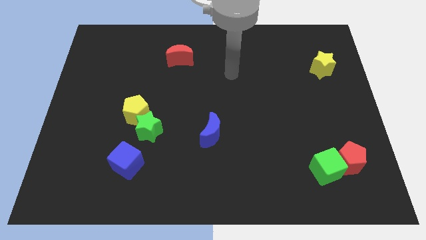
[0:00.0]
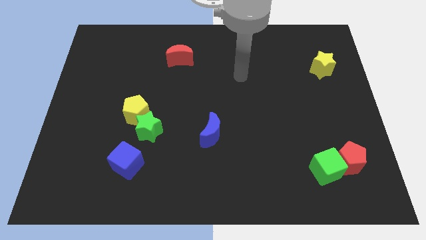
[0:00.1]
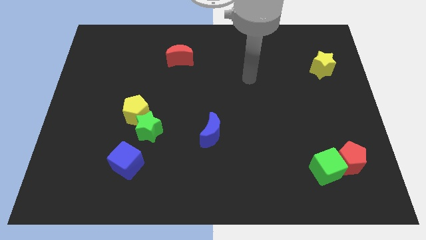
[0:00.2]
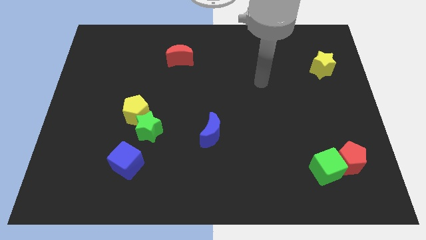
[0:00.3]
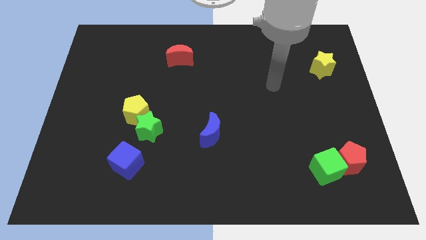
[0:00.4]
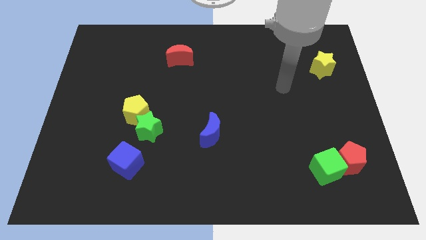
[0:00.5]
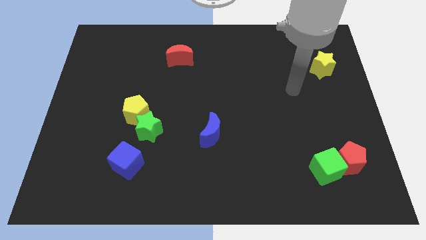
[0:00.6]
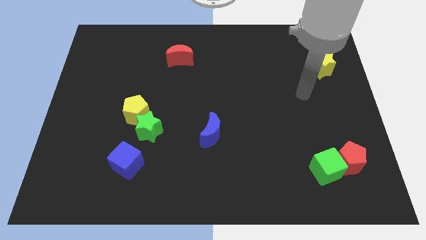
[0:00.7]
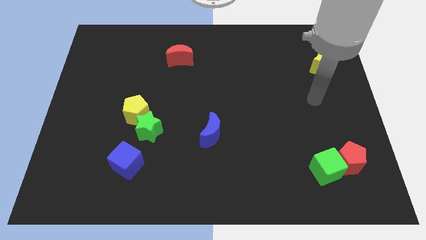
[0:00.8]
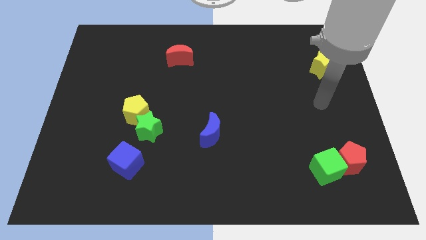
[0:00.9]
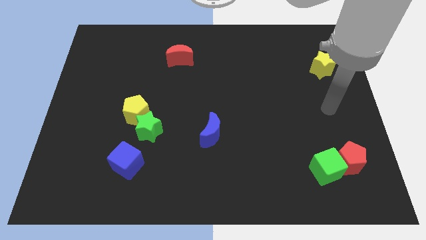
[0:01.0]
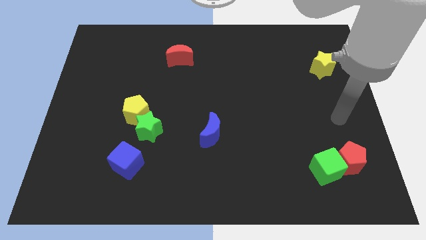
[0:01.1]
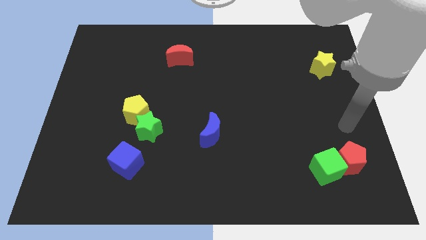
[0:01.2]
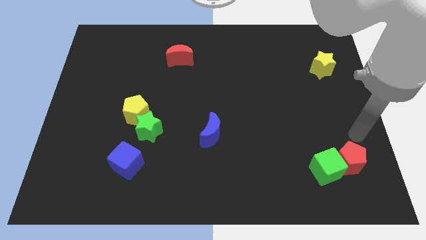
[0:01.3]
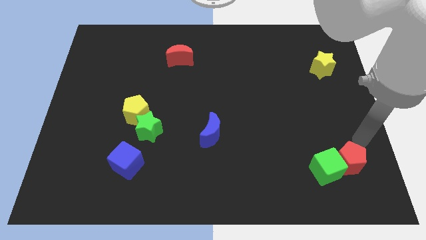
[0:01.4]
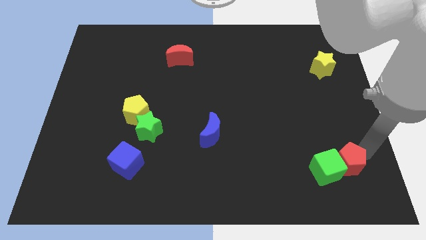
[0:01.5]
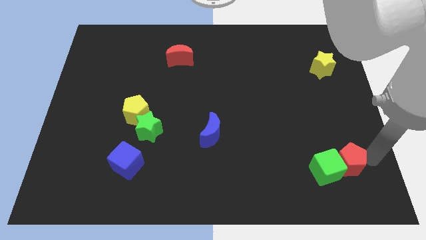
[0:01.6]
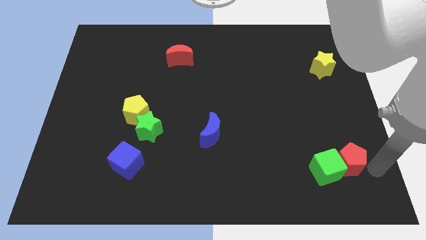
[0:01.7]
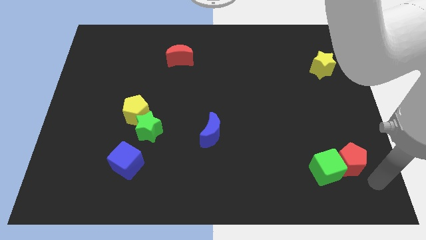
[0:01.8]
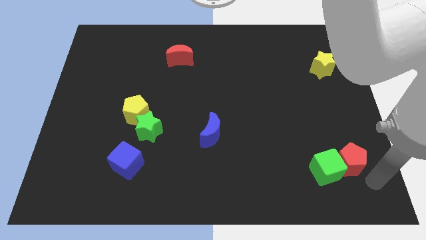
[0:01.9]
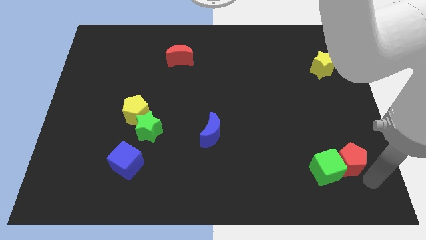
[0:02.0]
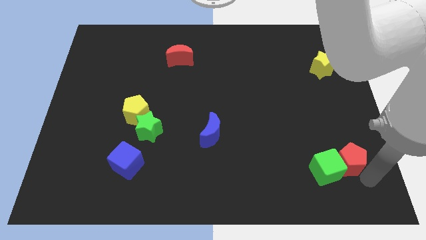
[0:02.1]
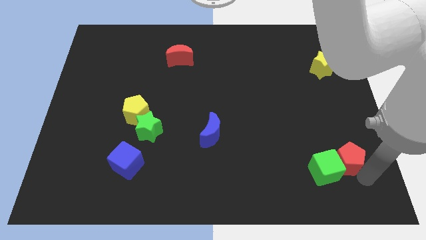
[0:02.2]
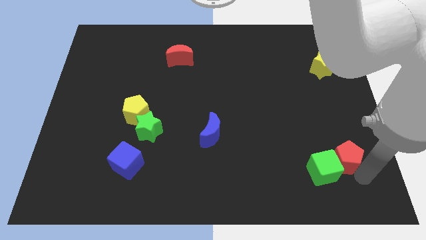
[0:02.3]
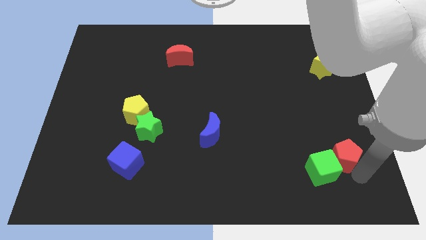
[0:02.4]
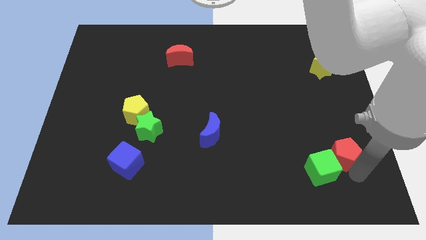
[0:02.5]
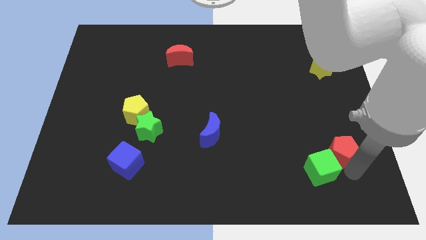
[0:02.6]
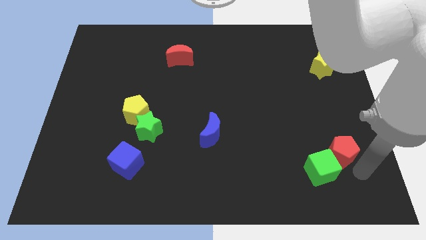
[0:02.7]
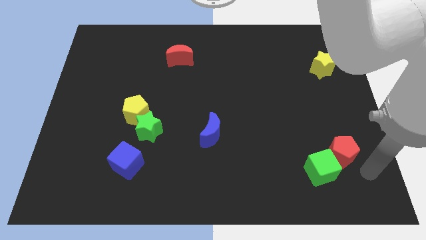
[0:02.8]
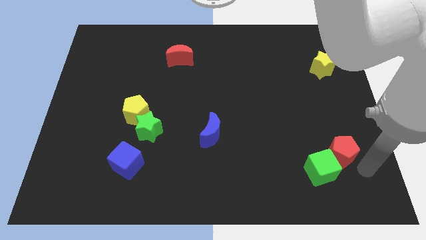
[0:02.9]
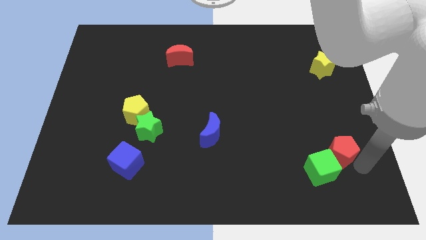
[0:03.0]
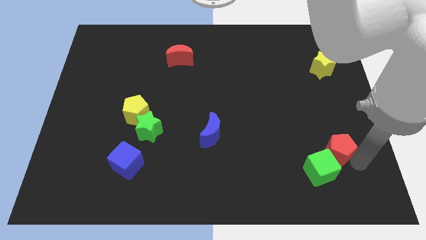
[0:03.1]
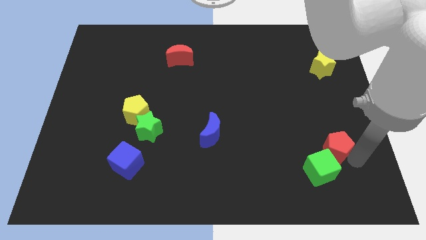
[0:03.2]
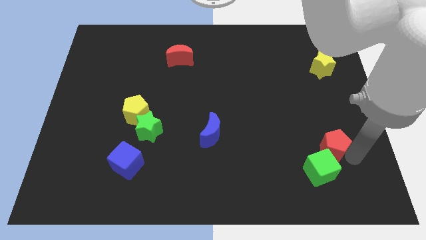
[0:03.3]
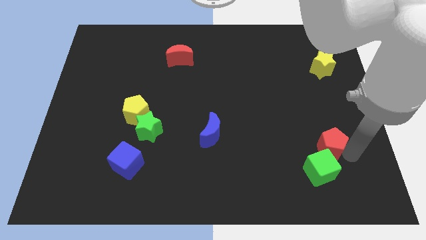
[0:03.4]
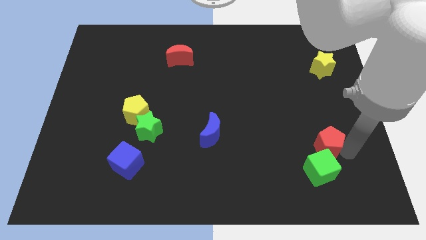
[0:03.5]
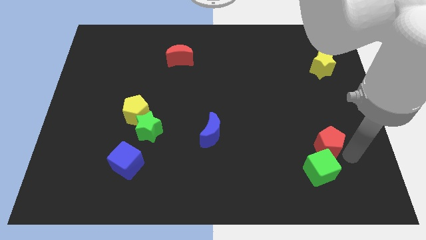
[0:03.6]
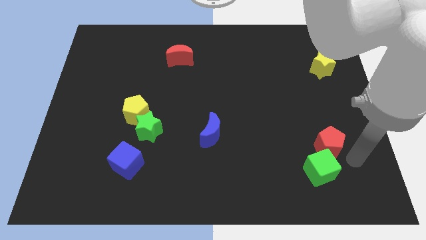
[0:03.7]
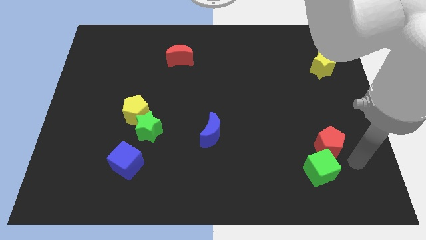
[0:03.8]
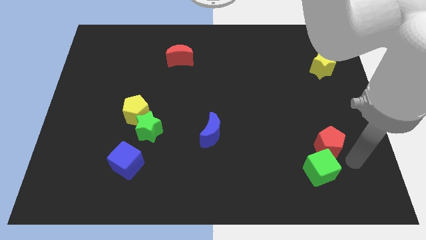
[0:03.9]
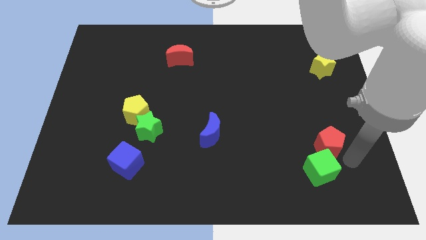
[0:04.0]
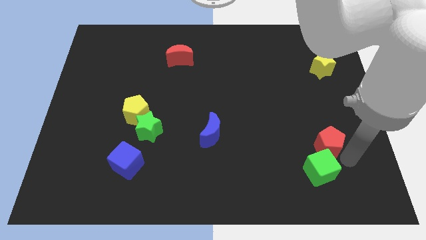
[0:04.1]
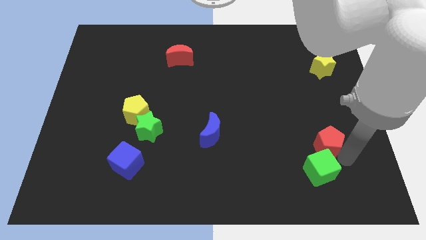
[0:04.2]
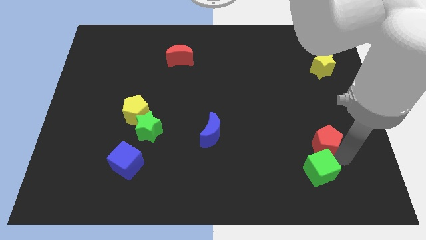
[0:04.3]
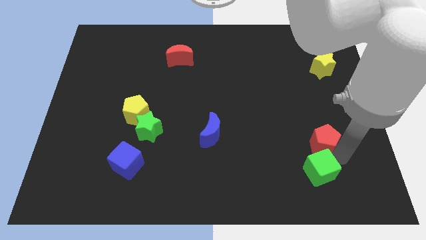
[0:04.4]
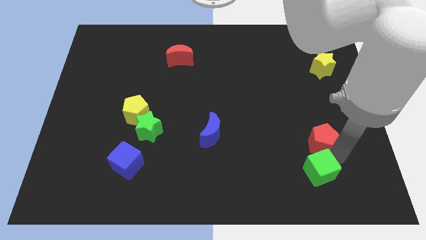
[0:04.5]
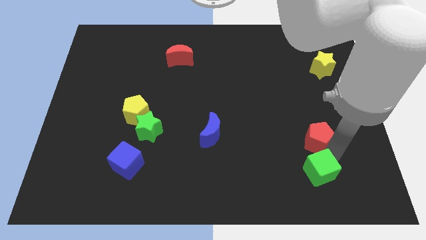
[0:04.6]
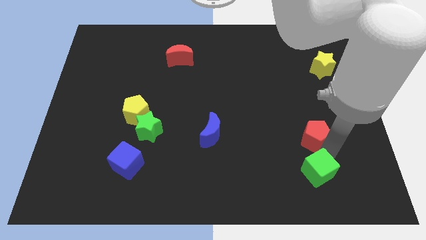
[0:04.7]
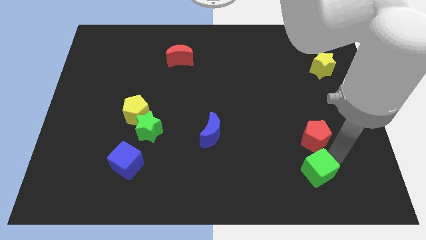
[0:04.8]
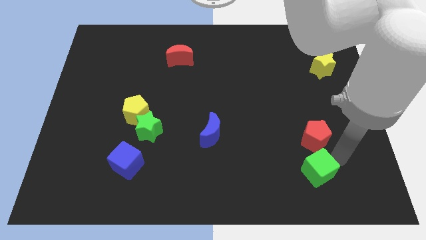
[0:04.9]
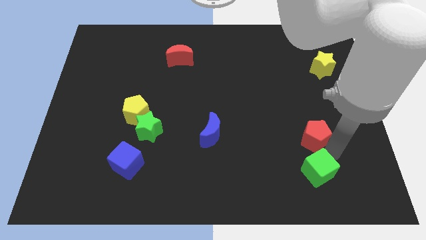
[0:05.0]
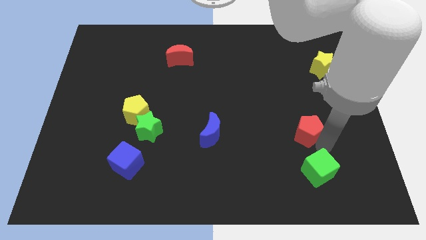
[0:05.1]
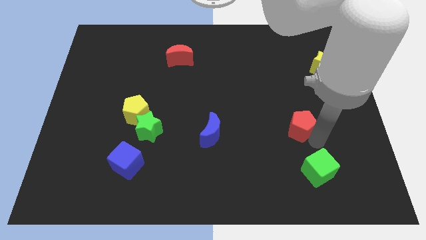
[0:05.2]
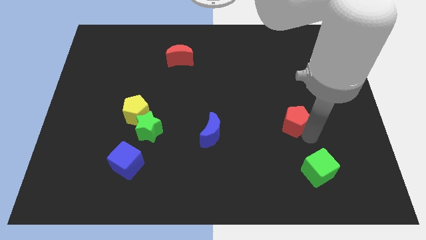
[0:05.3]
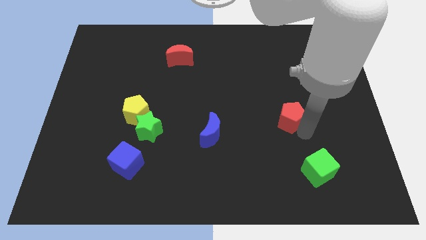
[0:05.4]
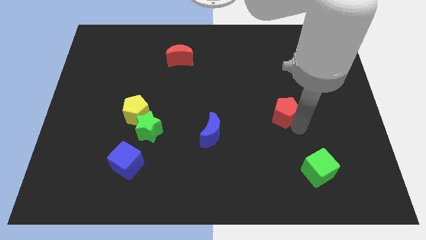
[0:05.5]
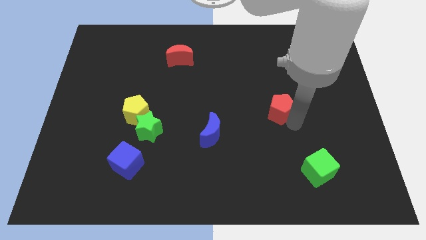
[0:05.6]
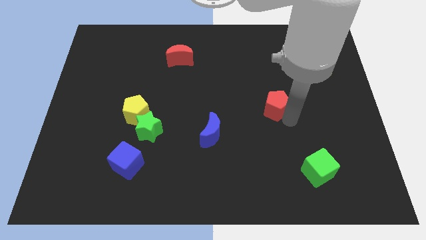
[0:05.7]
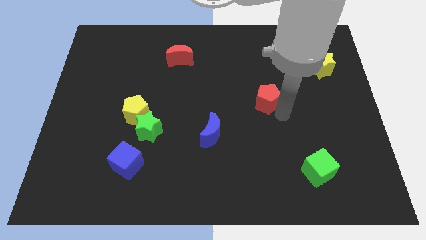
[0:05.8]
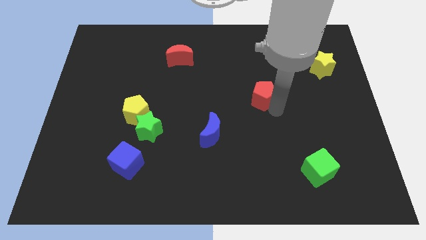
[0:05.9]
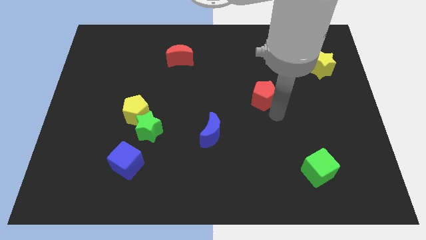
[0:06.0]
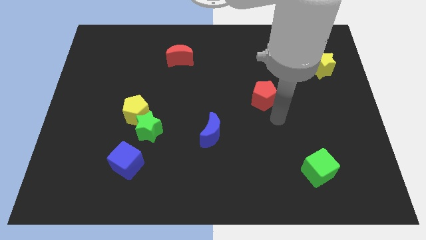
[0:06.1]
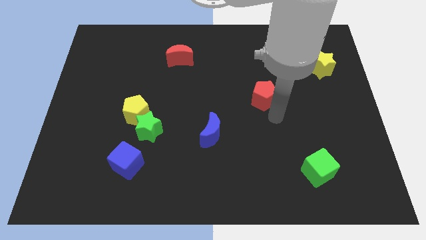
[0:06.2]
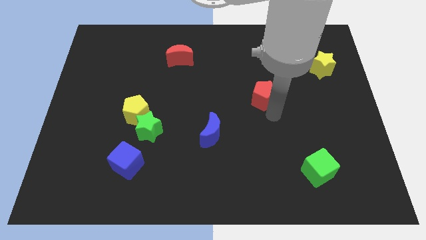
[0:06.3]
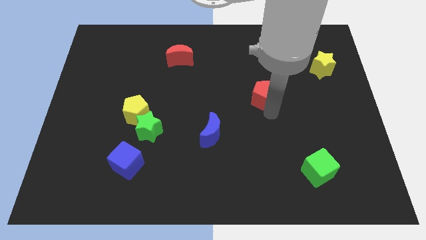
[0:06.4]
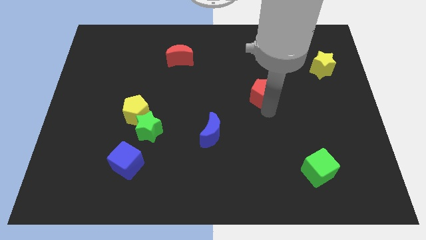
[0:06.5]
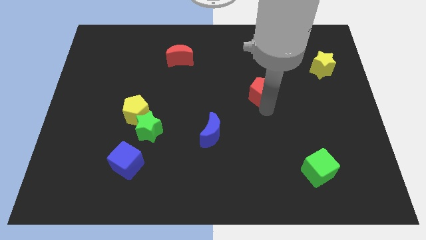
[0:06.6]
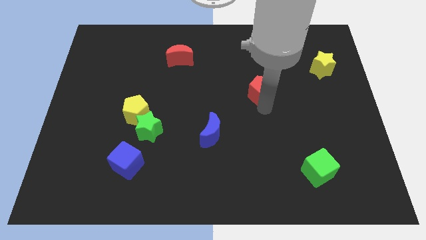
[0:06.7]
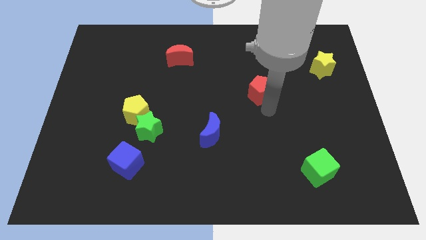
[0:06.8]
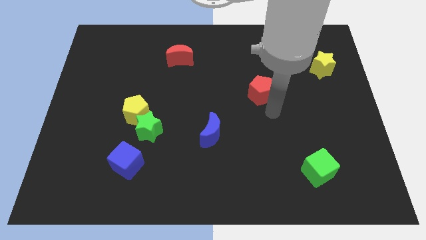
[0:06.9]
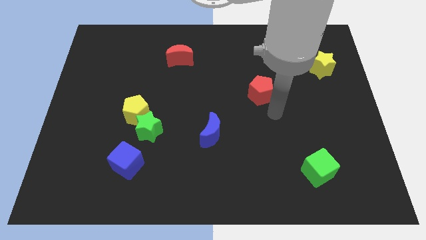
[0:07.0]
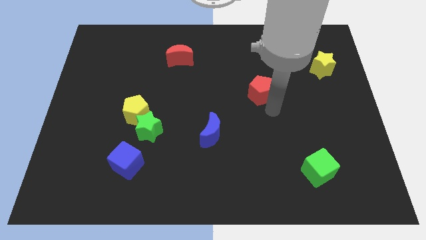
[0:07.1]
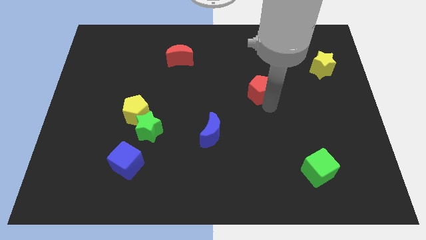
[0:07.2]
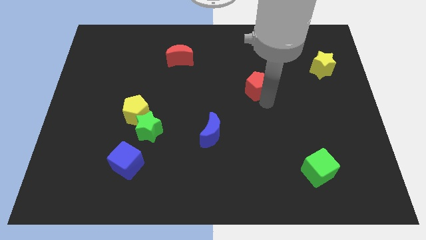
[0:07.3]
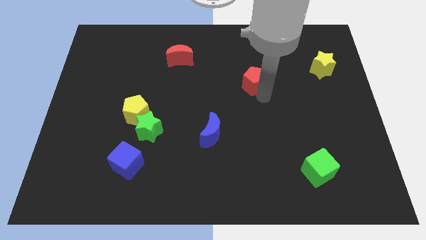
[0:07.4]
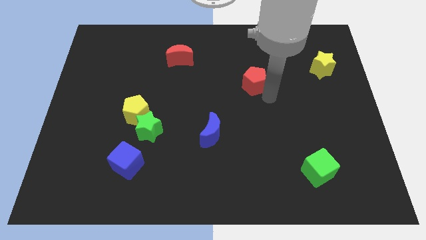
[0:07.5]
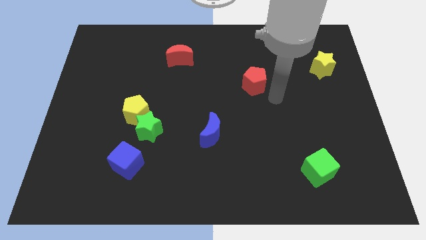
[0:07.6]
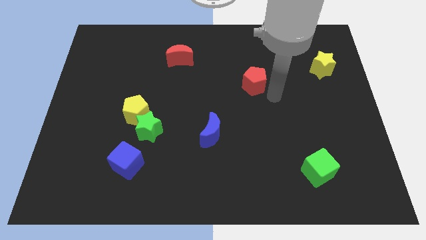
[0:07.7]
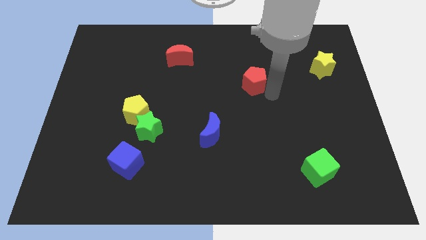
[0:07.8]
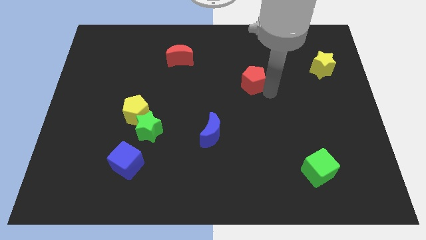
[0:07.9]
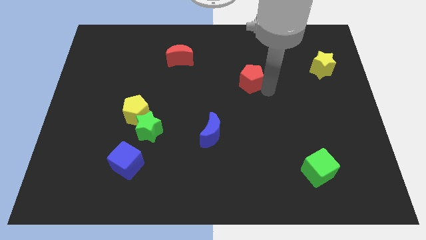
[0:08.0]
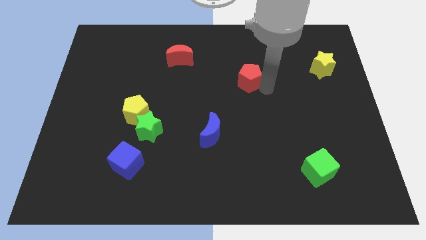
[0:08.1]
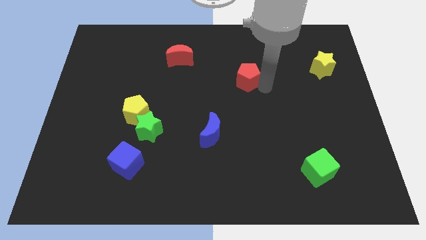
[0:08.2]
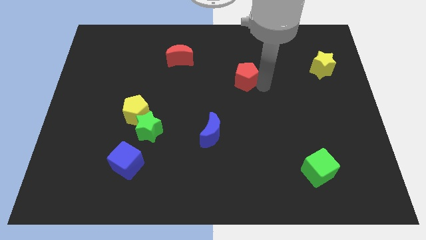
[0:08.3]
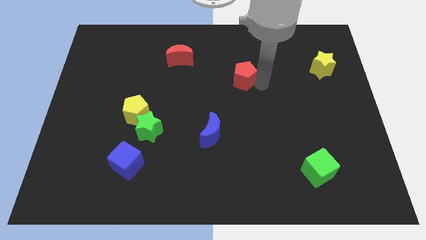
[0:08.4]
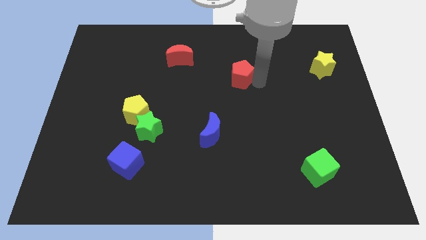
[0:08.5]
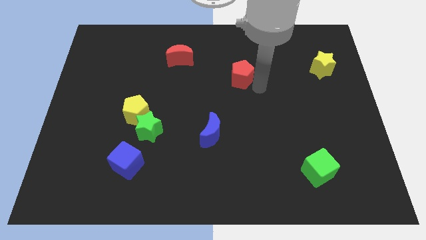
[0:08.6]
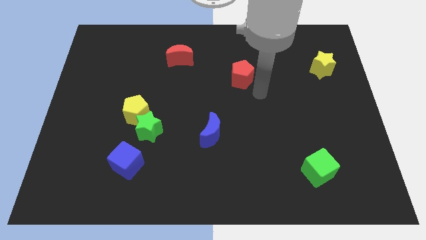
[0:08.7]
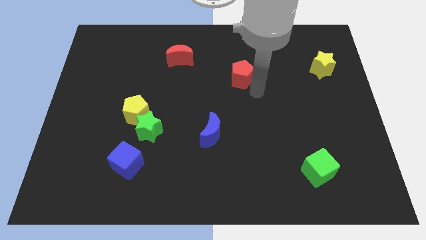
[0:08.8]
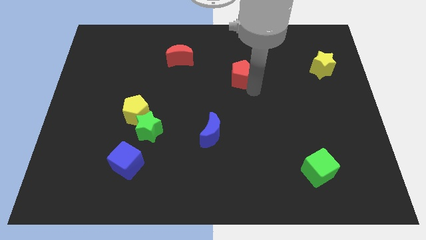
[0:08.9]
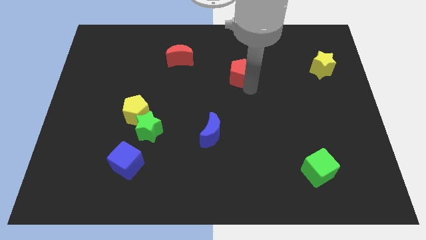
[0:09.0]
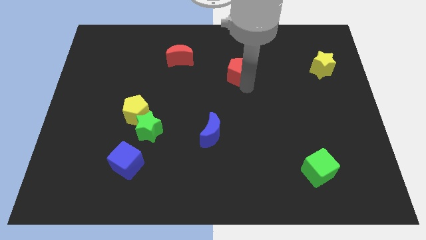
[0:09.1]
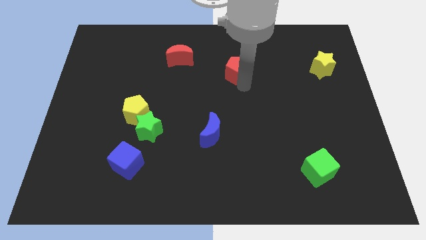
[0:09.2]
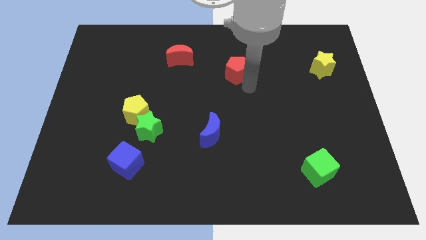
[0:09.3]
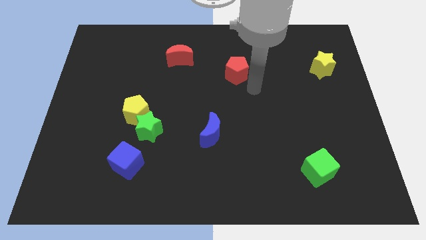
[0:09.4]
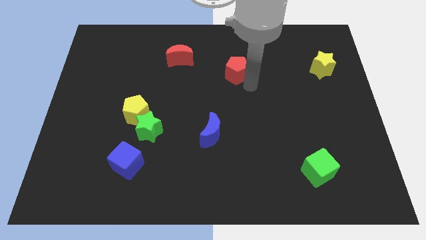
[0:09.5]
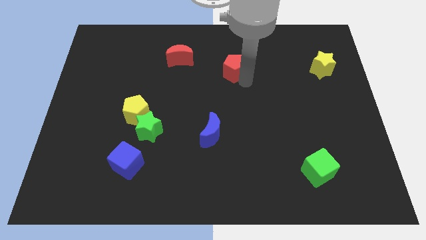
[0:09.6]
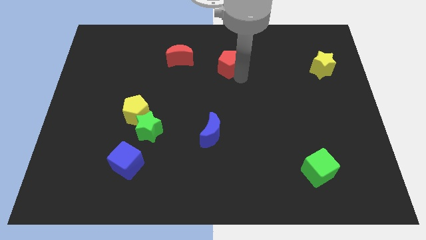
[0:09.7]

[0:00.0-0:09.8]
put the red pentagon just right of the red moon
